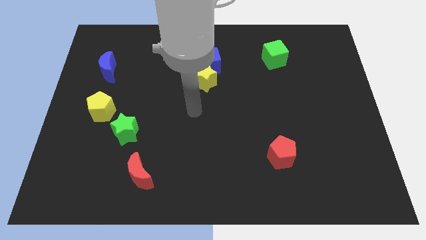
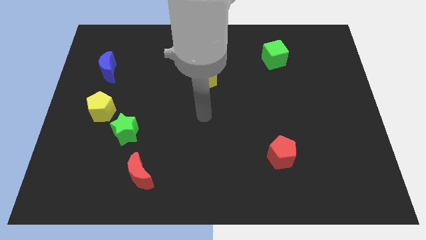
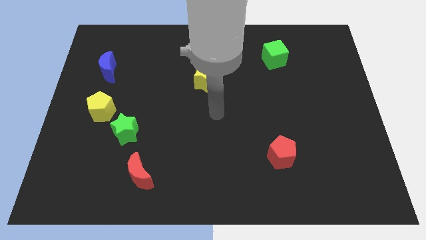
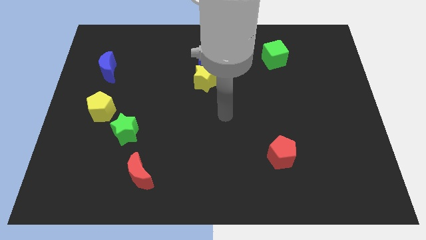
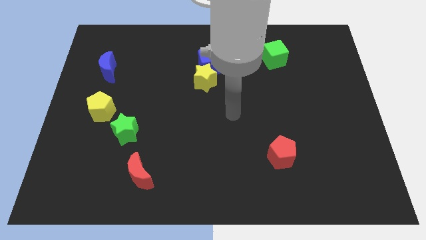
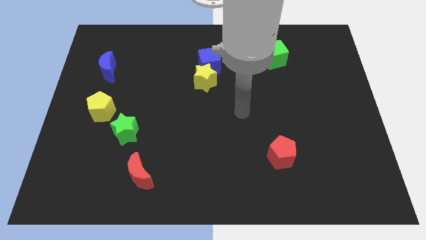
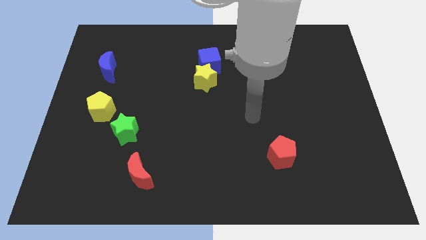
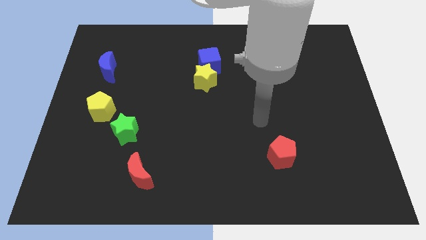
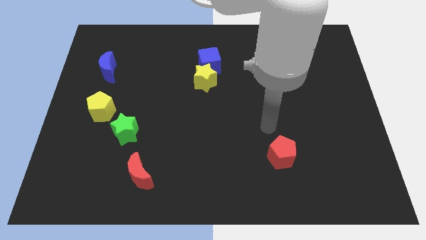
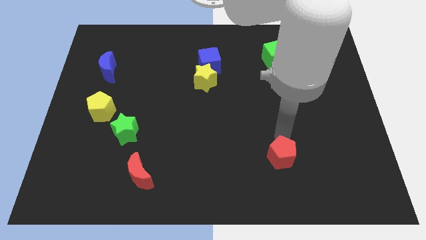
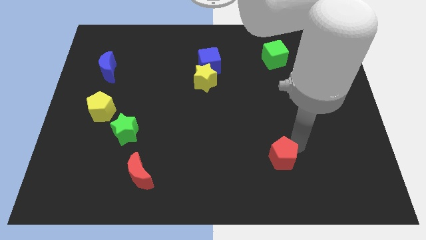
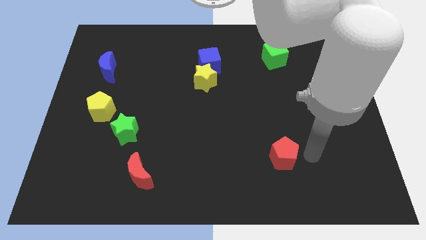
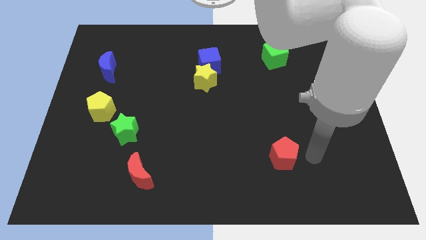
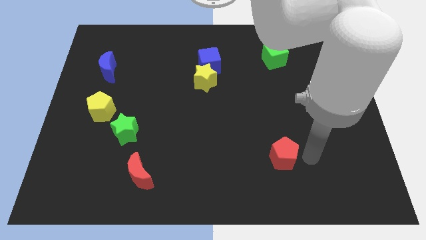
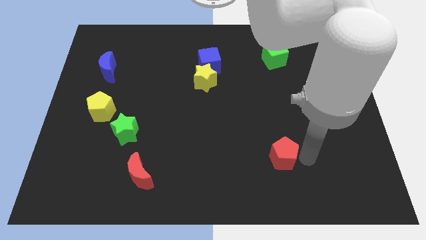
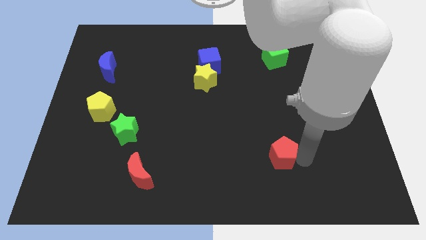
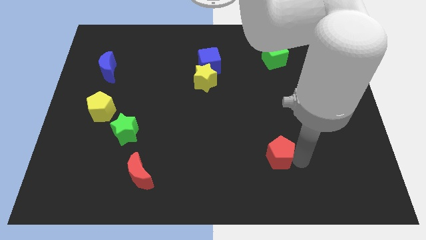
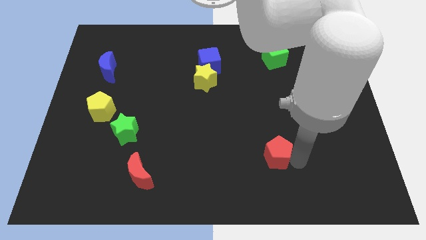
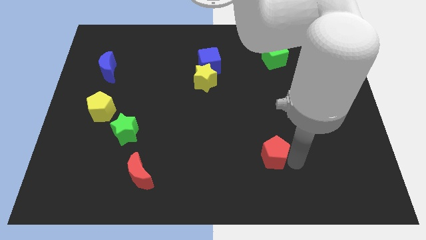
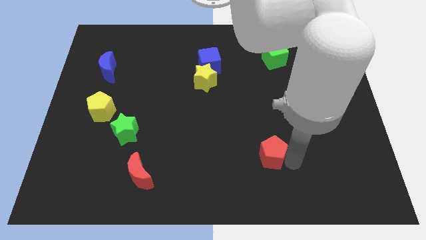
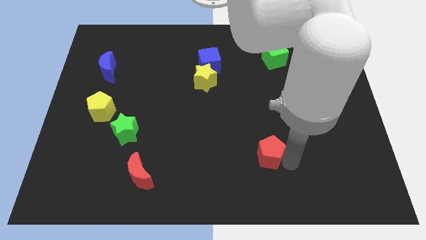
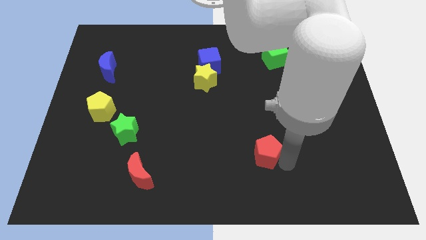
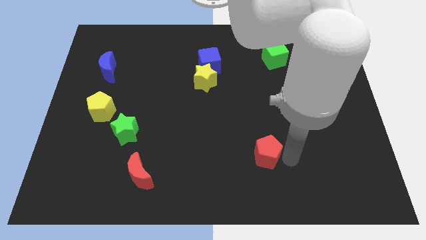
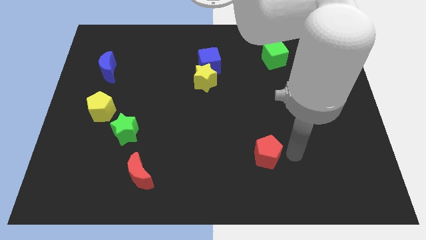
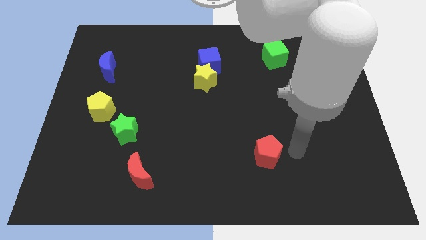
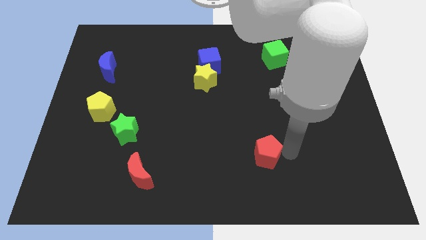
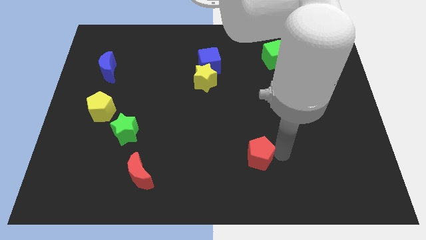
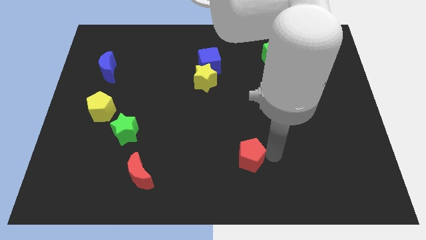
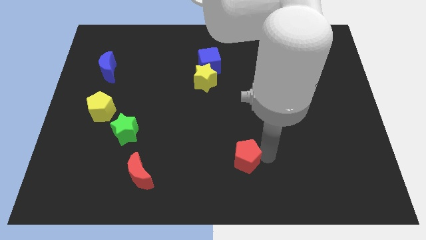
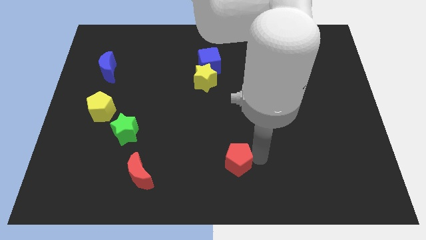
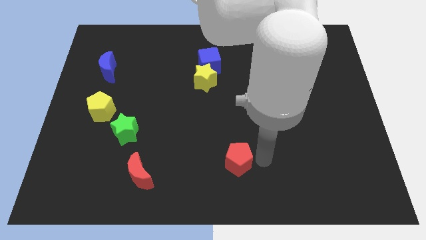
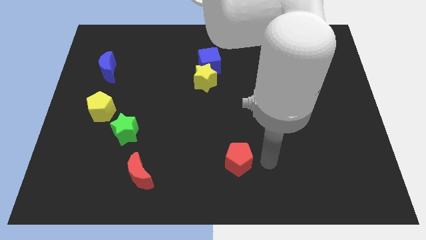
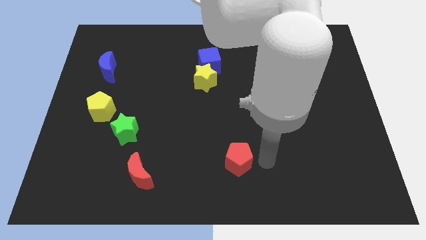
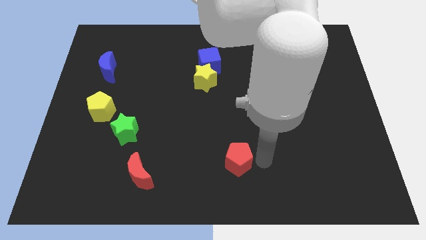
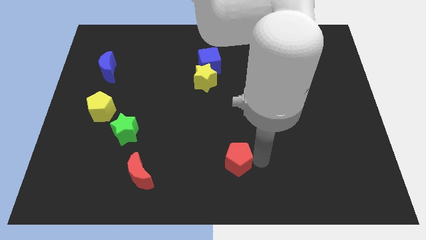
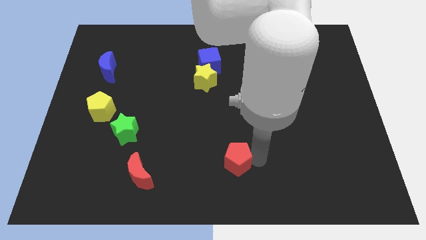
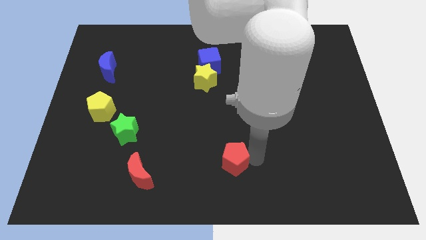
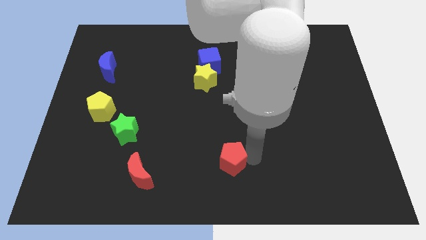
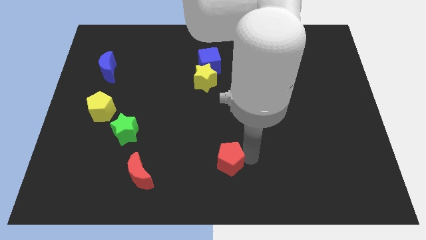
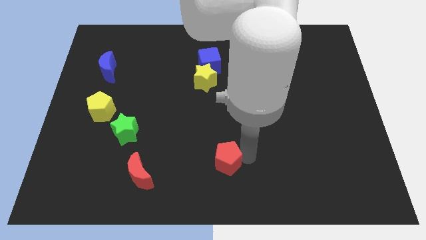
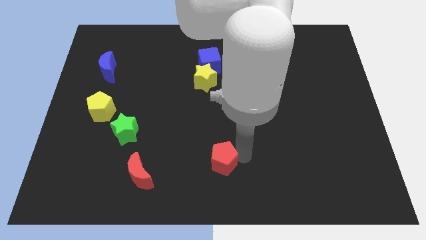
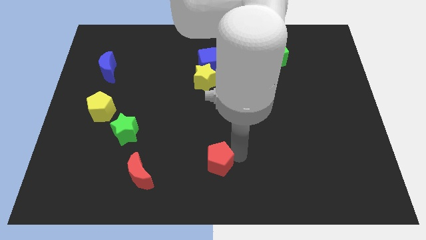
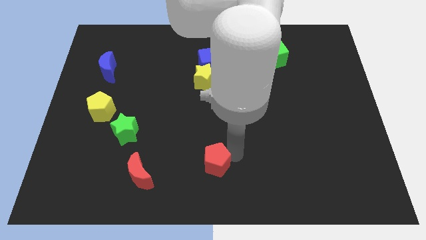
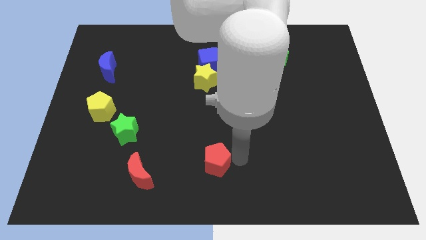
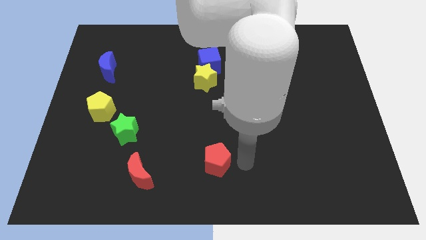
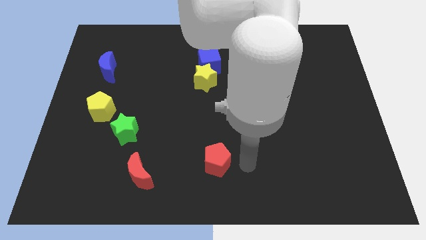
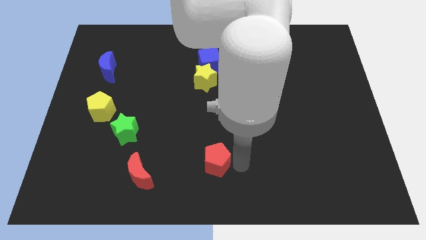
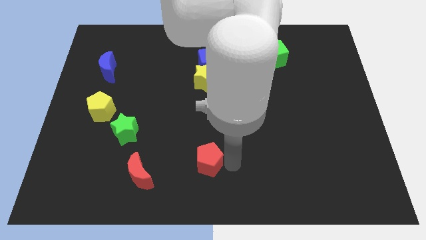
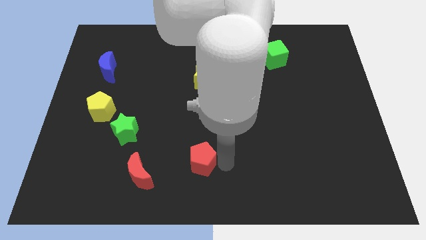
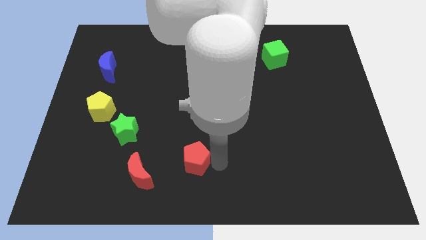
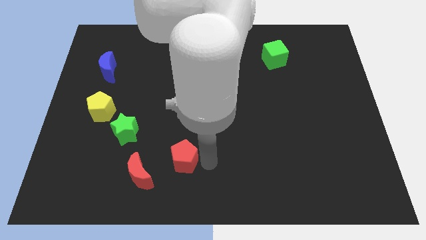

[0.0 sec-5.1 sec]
slide the red pentagon left

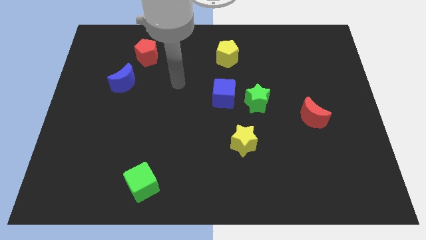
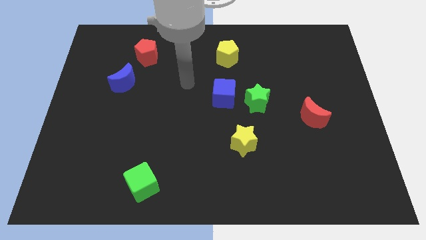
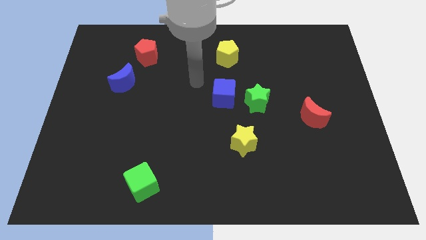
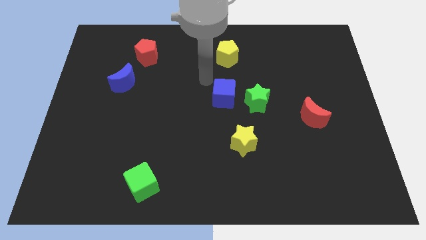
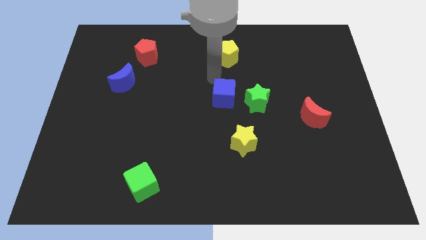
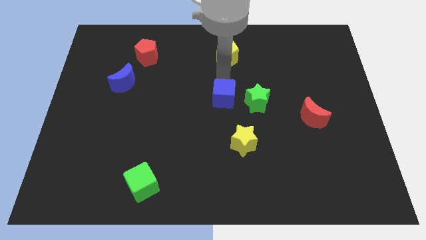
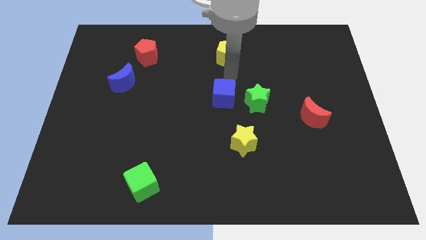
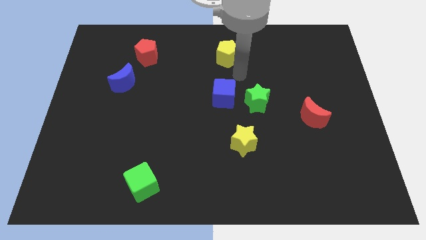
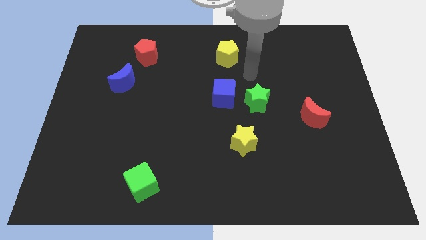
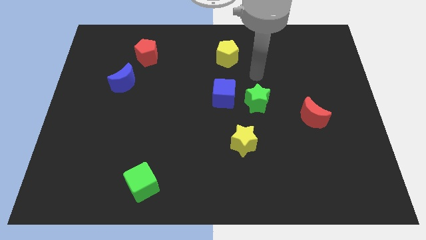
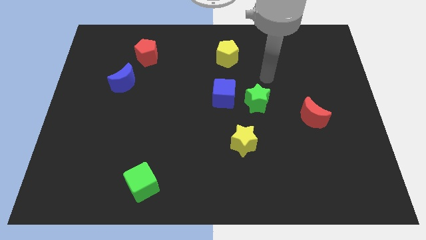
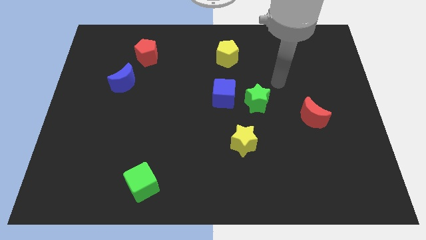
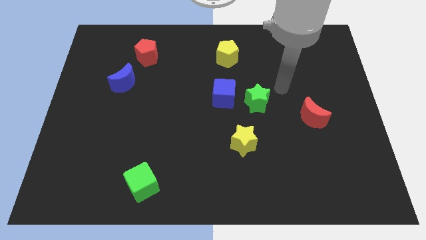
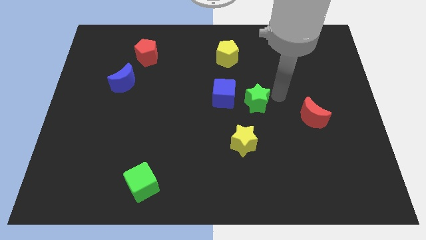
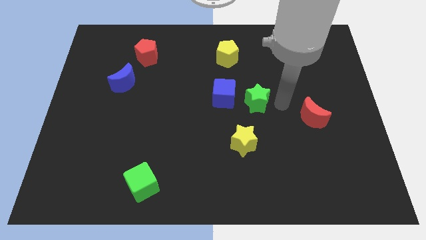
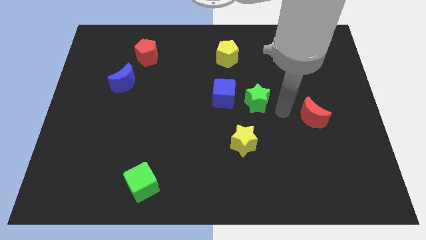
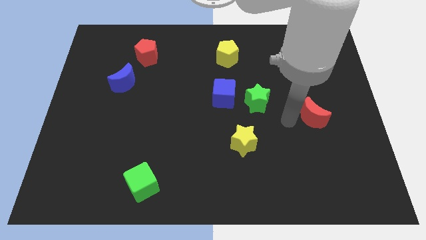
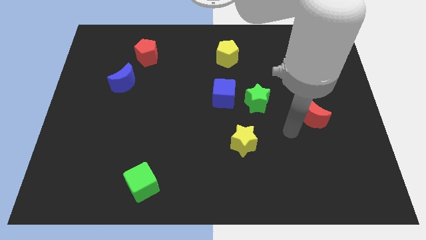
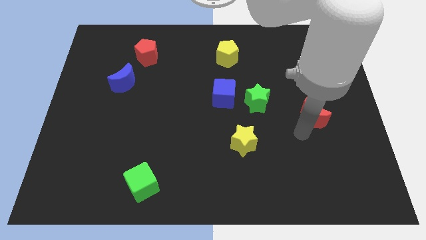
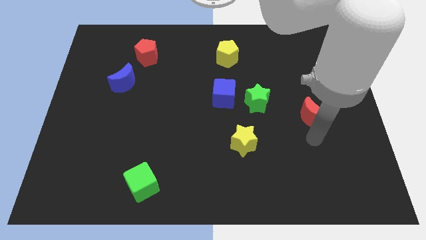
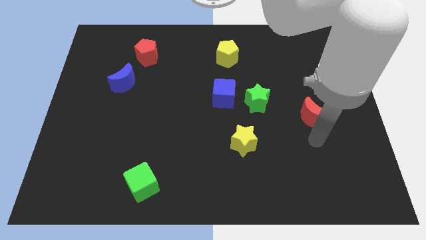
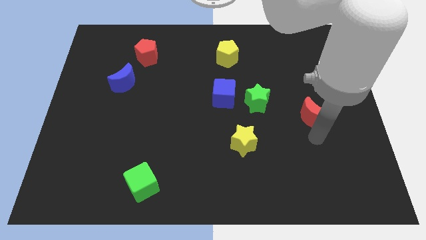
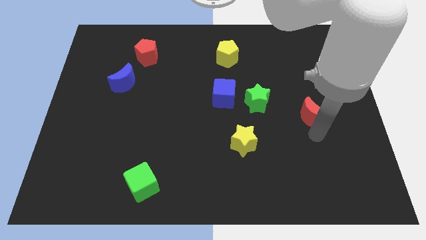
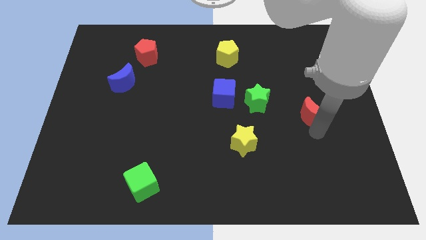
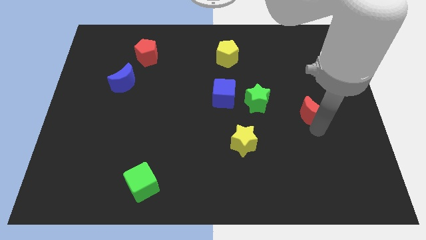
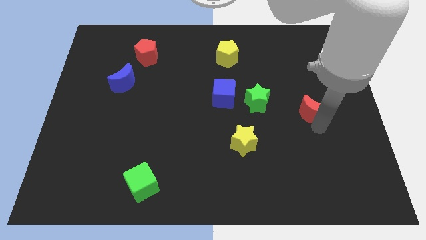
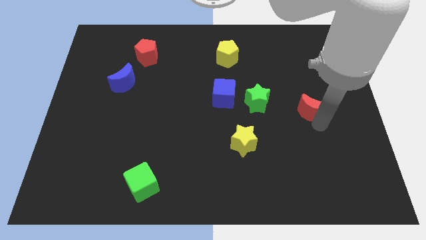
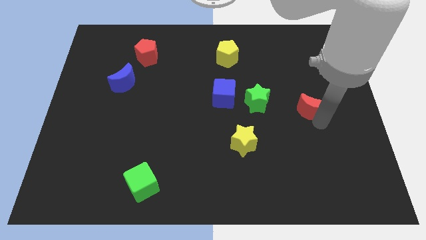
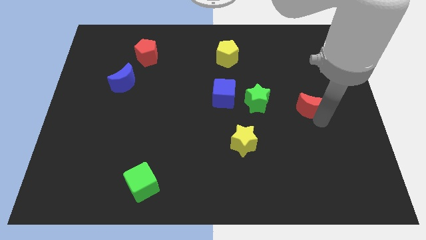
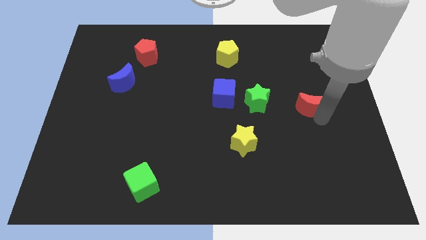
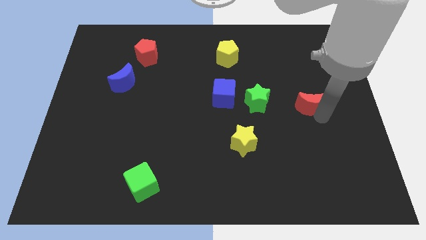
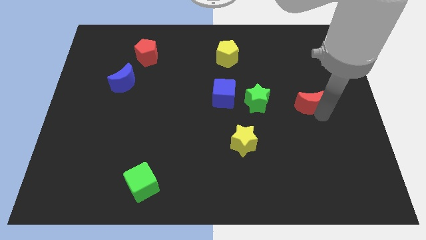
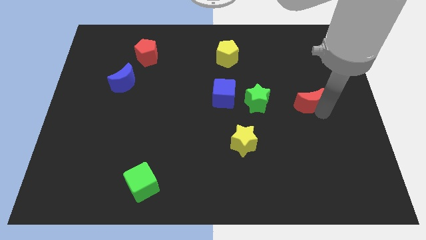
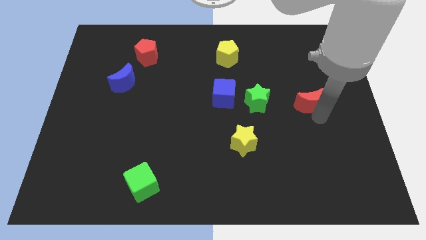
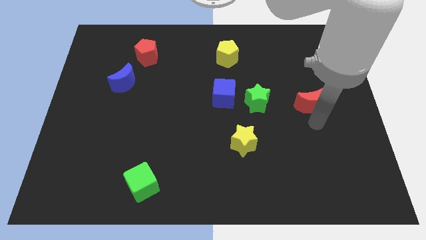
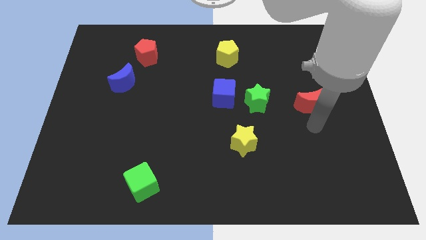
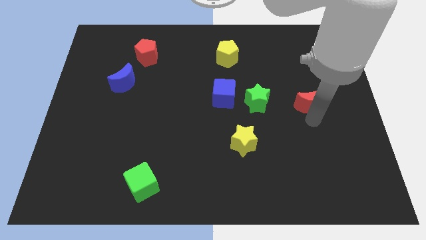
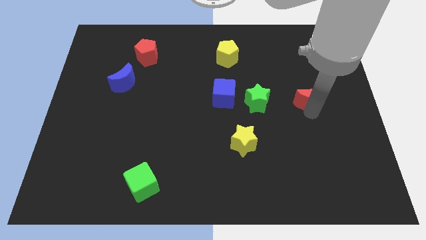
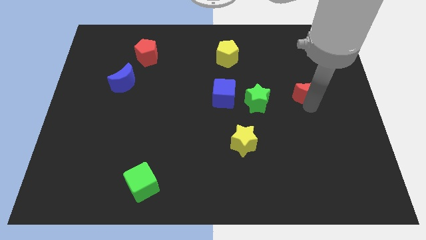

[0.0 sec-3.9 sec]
push the red moon upwards somewhat
